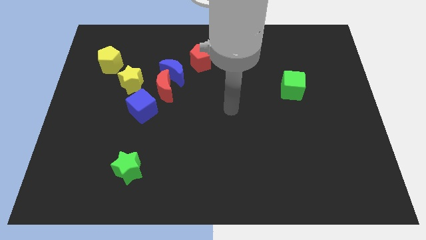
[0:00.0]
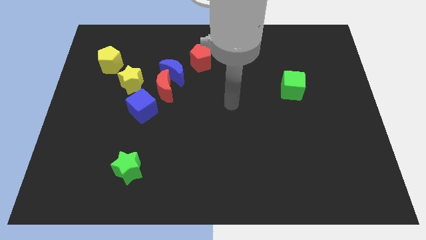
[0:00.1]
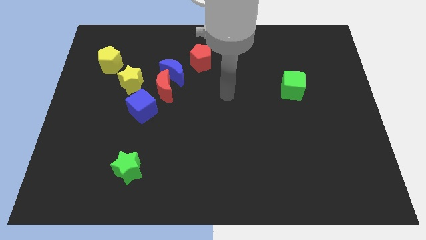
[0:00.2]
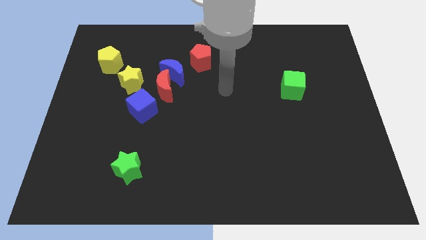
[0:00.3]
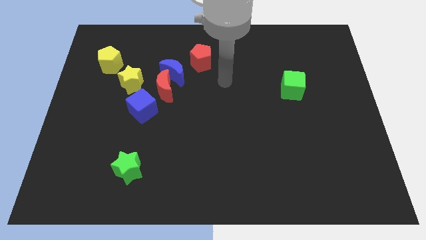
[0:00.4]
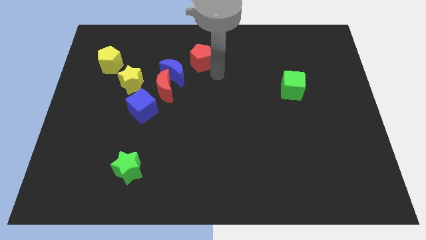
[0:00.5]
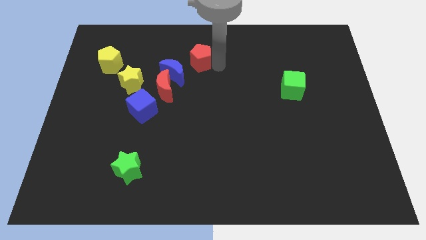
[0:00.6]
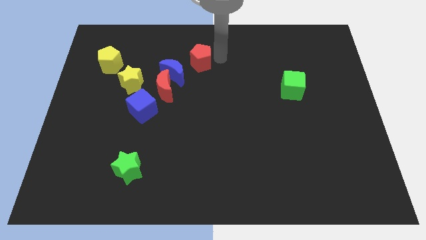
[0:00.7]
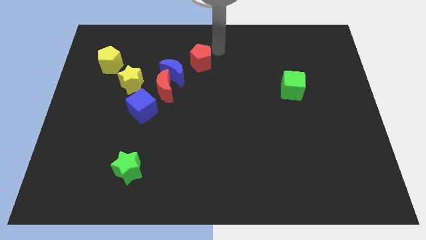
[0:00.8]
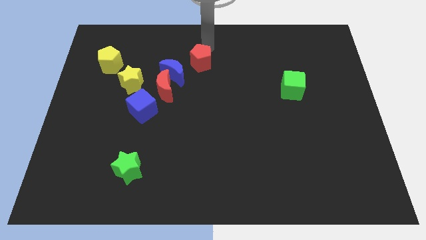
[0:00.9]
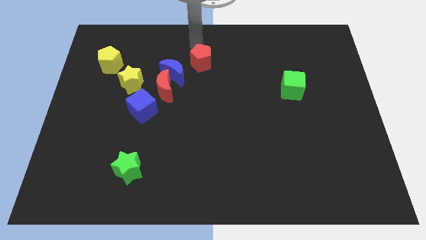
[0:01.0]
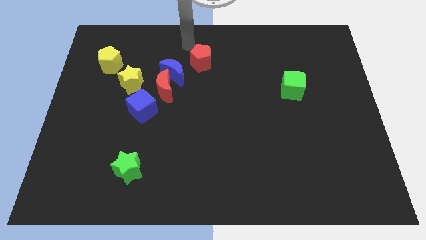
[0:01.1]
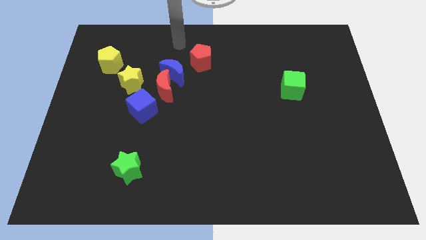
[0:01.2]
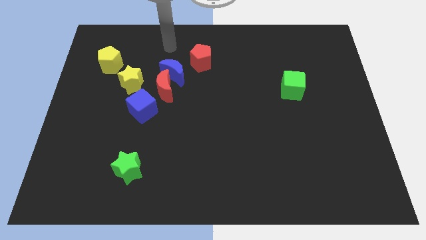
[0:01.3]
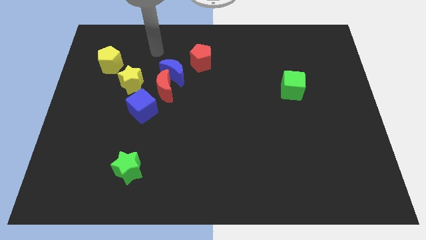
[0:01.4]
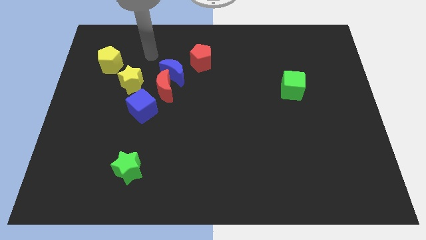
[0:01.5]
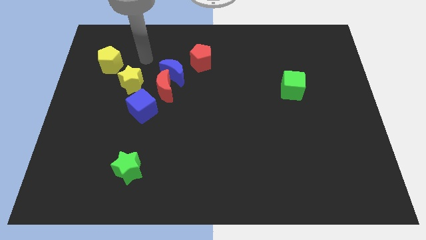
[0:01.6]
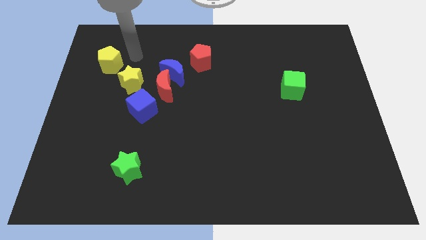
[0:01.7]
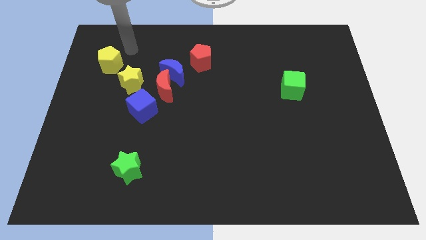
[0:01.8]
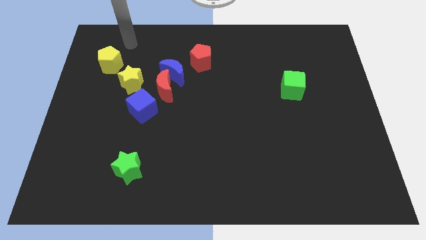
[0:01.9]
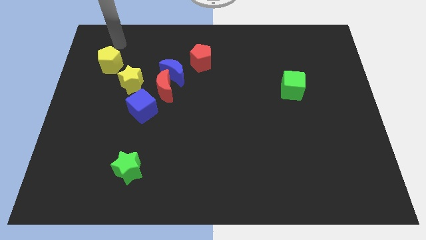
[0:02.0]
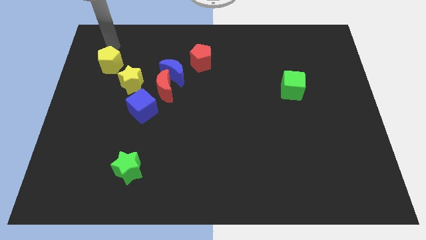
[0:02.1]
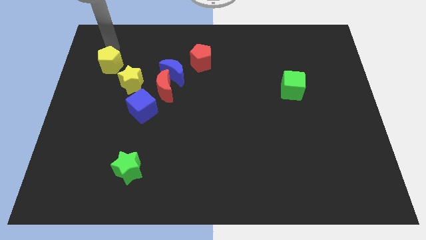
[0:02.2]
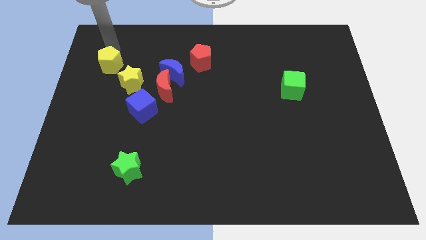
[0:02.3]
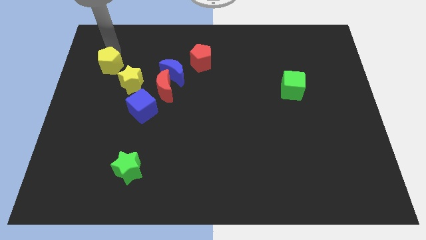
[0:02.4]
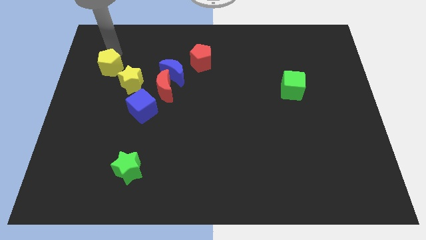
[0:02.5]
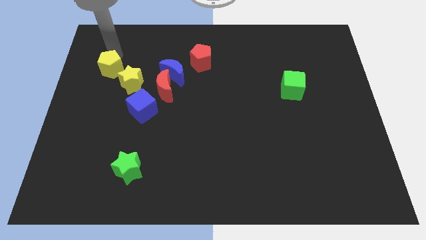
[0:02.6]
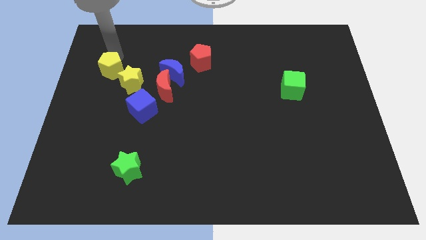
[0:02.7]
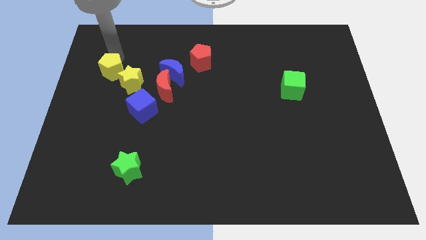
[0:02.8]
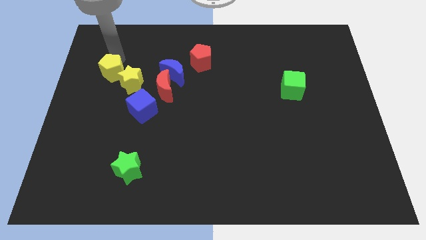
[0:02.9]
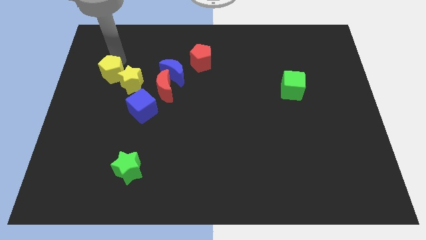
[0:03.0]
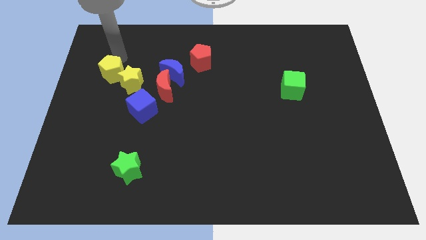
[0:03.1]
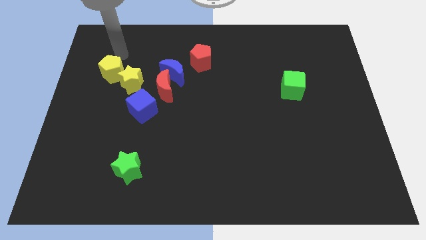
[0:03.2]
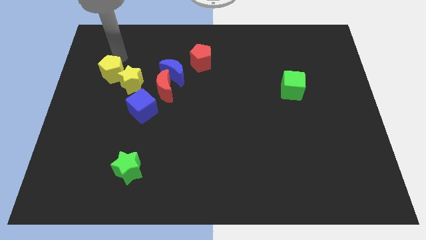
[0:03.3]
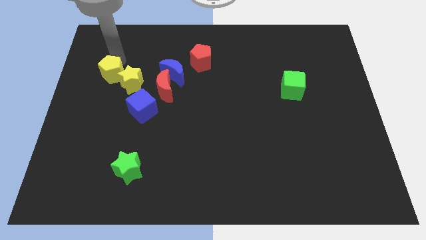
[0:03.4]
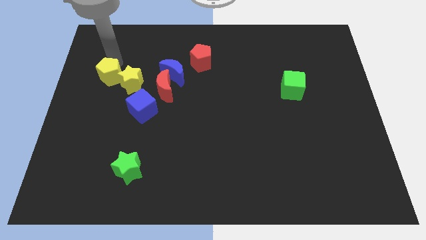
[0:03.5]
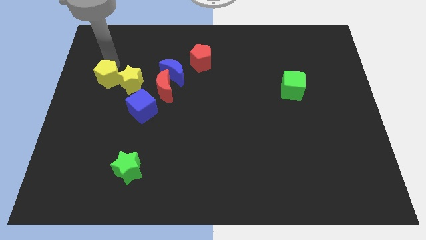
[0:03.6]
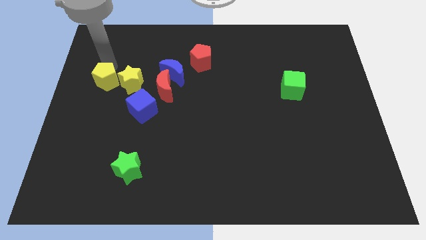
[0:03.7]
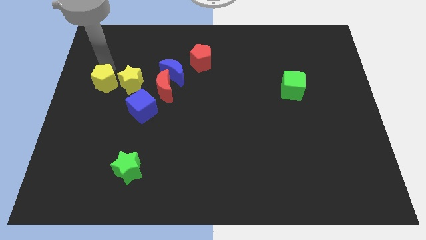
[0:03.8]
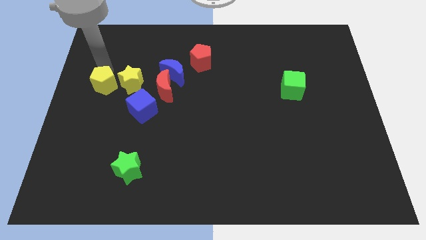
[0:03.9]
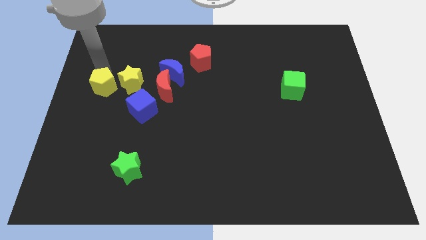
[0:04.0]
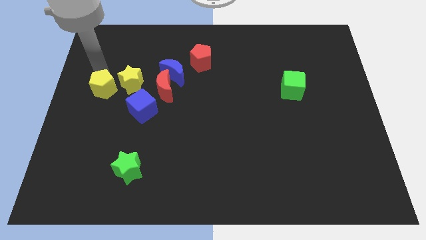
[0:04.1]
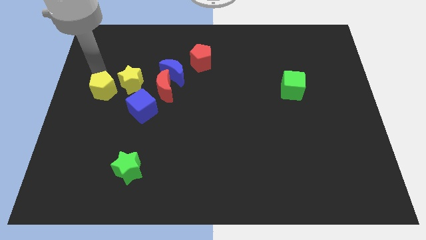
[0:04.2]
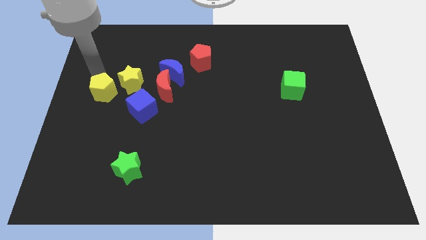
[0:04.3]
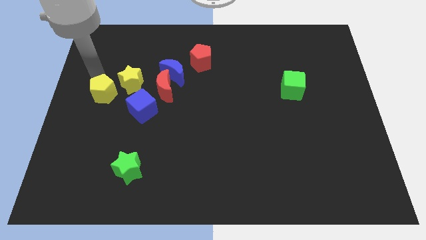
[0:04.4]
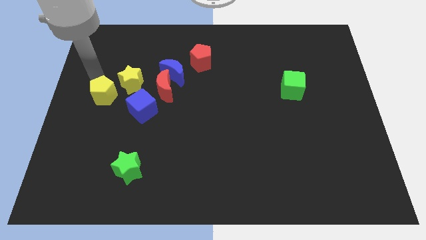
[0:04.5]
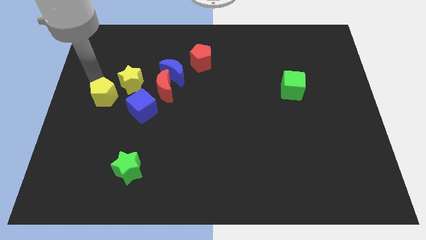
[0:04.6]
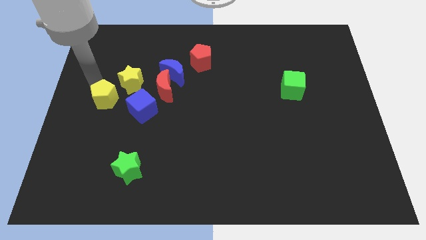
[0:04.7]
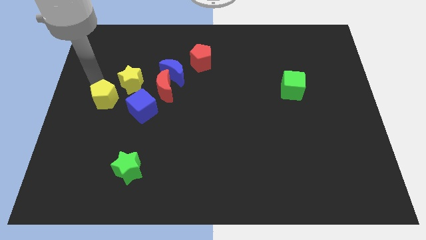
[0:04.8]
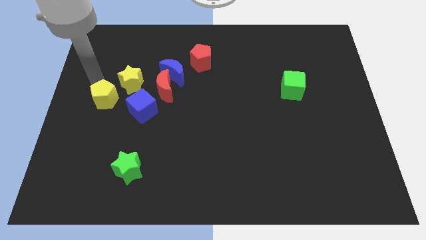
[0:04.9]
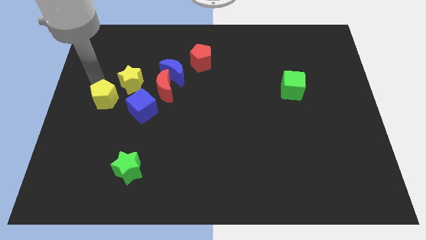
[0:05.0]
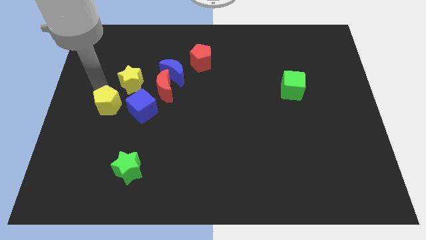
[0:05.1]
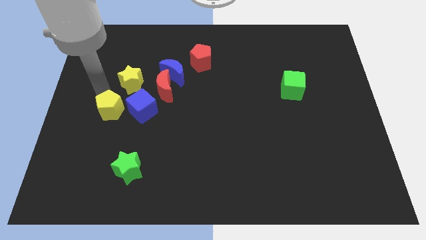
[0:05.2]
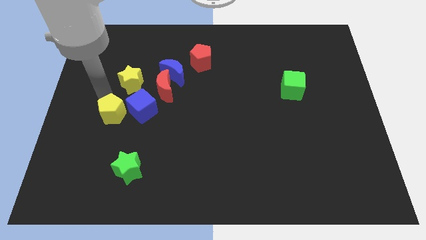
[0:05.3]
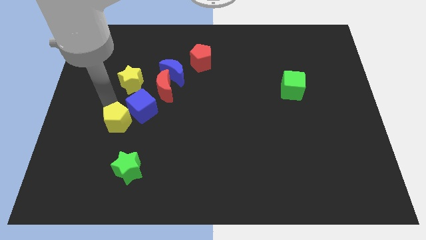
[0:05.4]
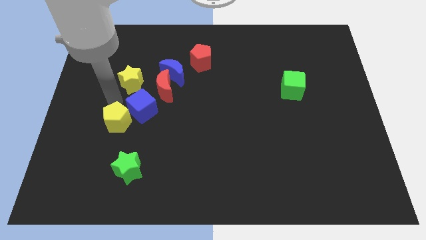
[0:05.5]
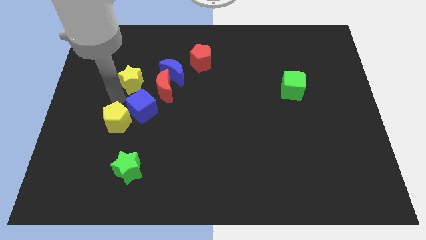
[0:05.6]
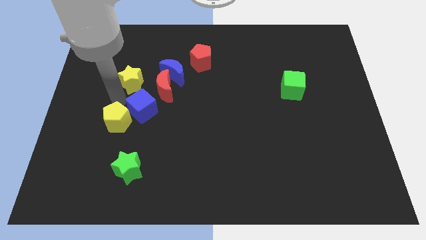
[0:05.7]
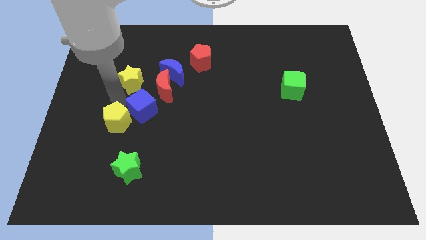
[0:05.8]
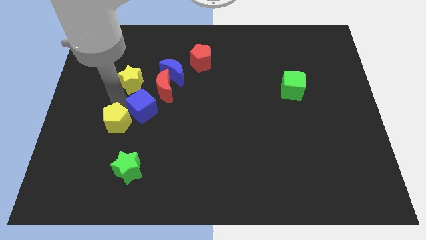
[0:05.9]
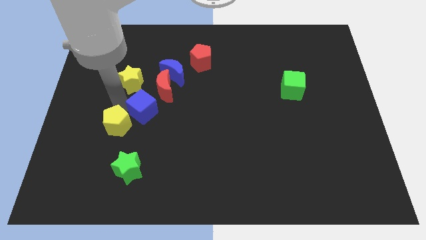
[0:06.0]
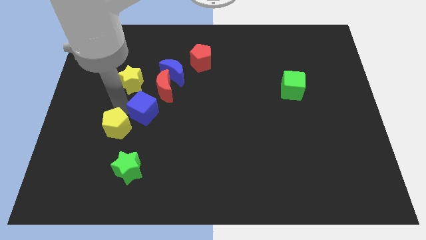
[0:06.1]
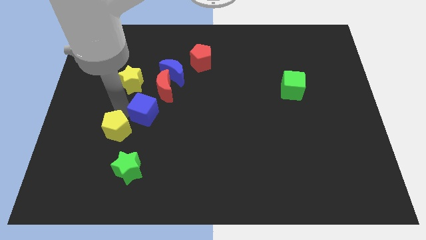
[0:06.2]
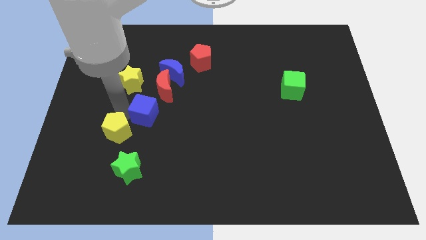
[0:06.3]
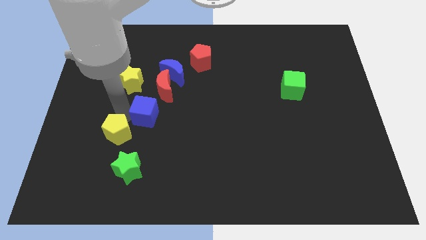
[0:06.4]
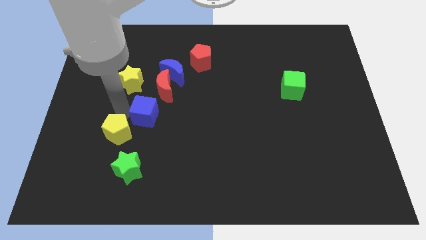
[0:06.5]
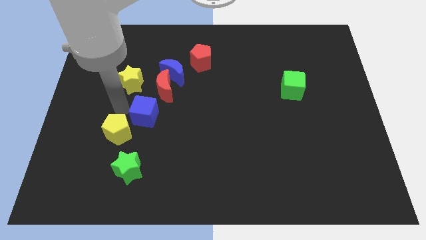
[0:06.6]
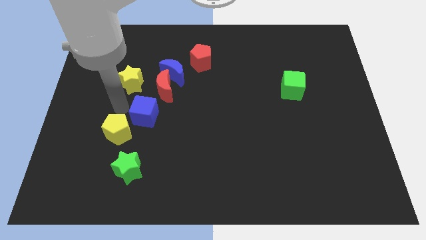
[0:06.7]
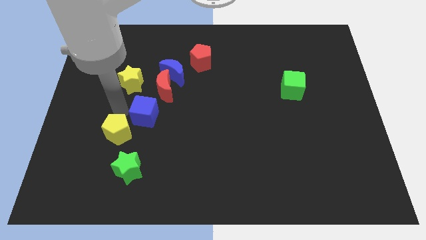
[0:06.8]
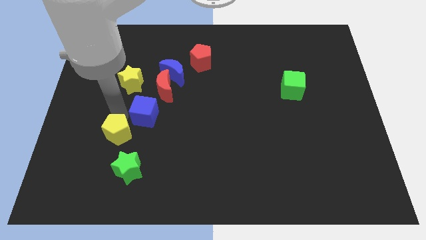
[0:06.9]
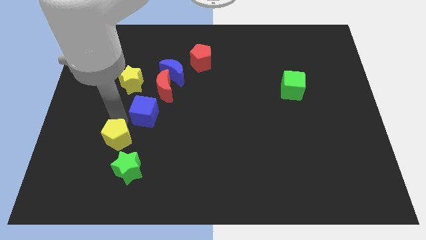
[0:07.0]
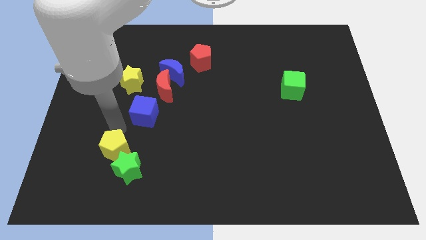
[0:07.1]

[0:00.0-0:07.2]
put the yellow pentagon towards the green star
